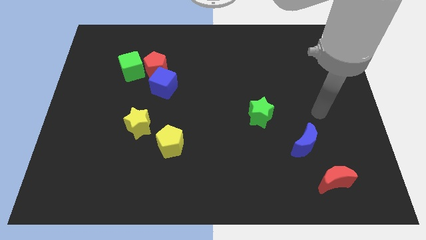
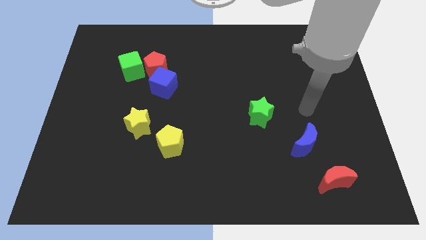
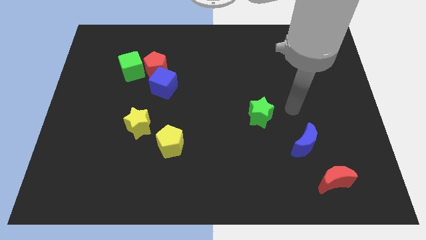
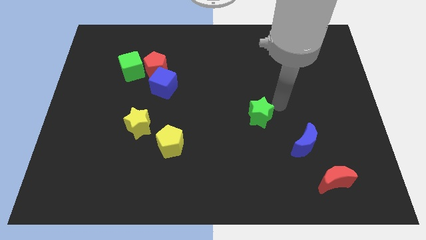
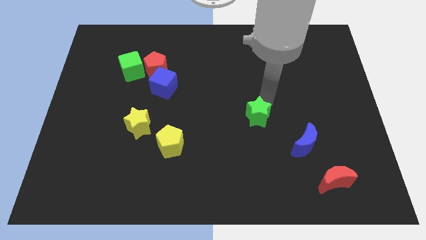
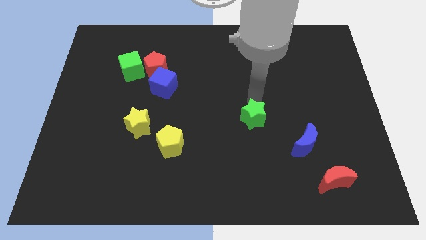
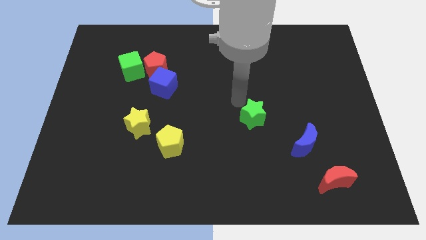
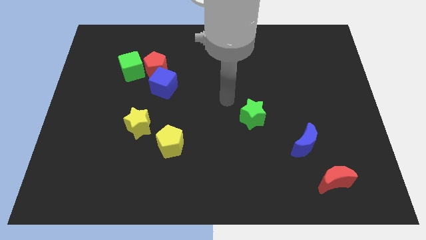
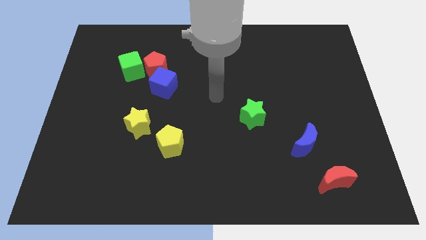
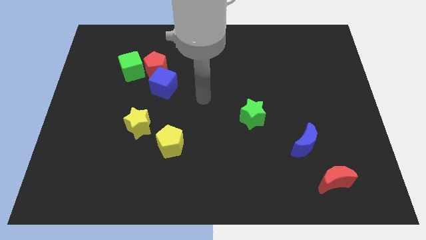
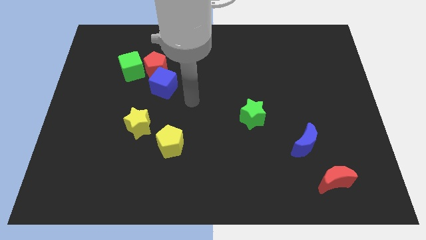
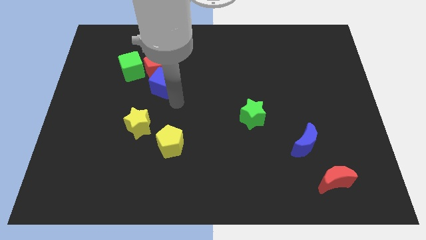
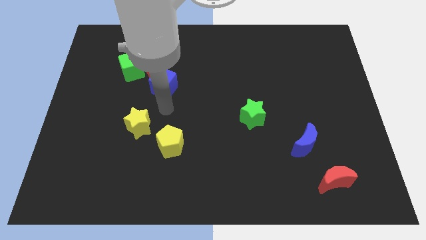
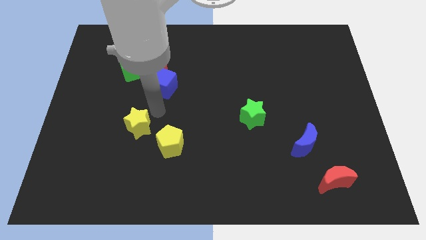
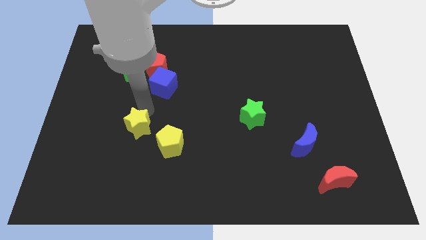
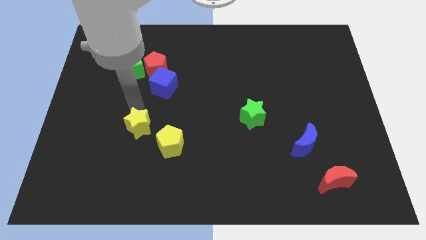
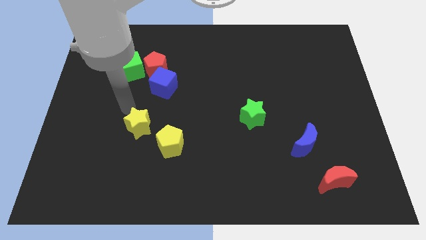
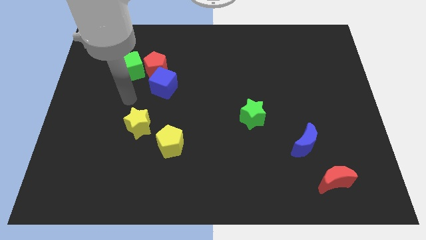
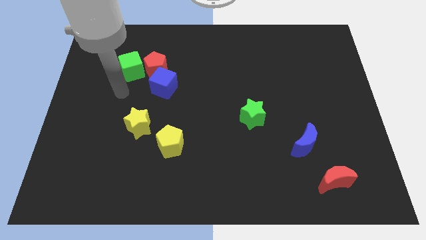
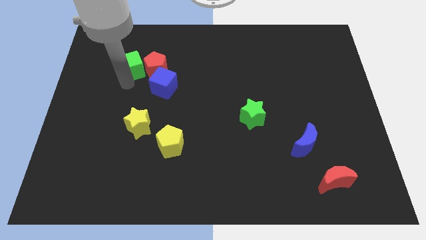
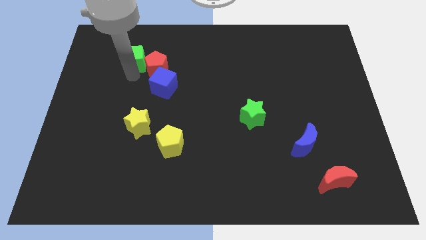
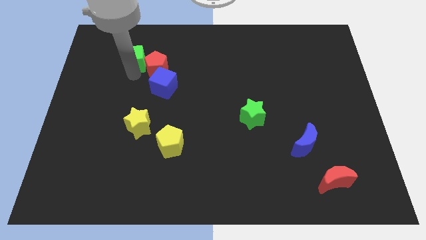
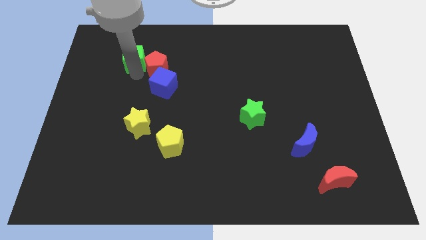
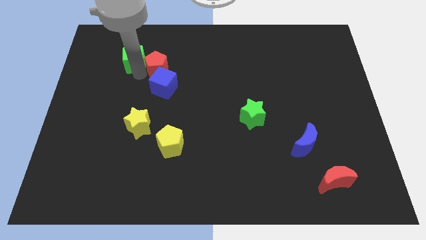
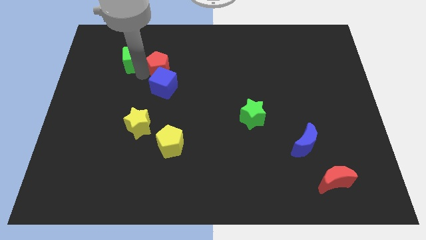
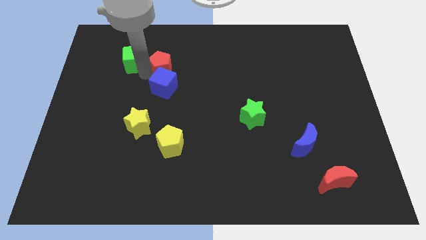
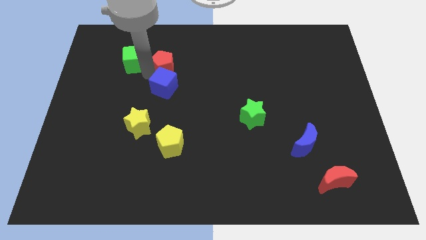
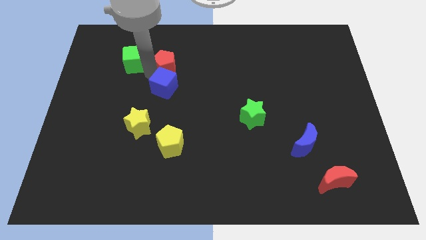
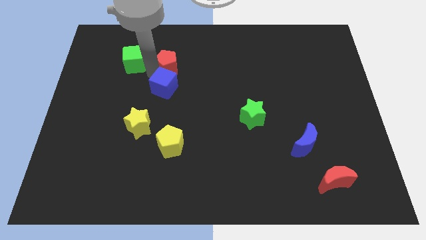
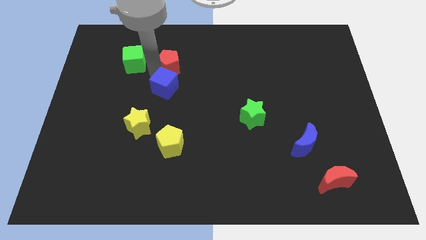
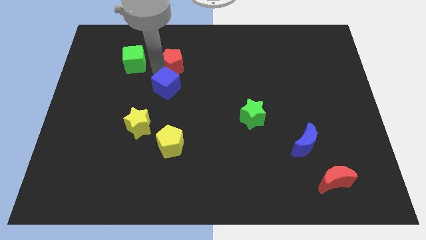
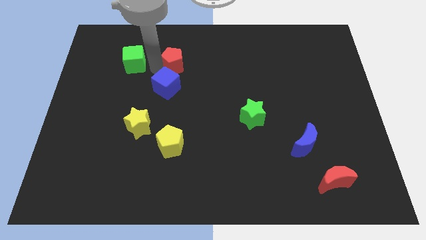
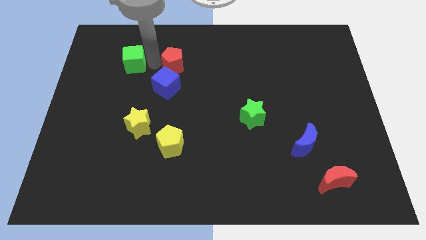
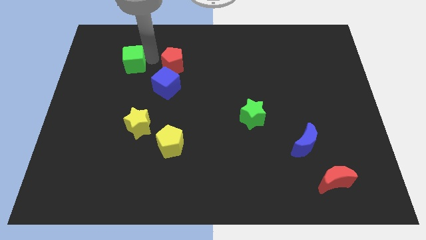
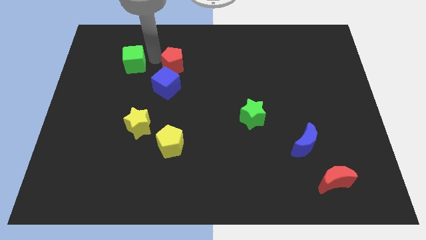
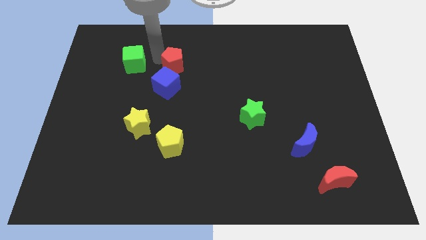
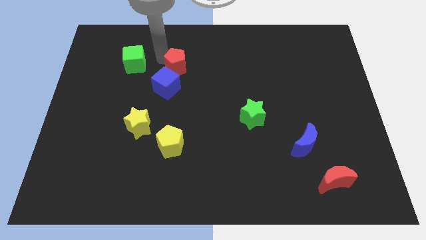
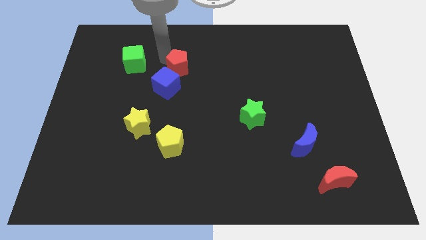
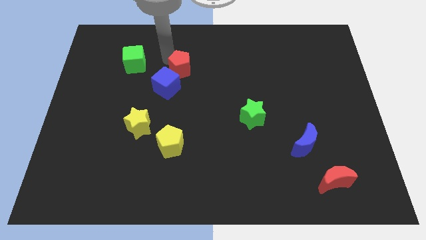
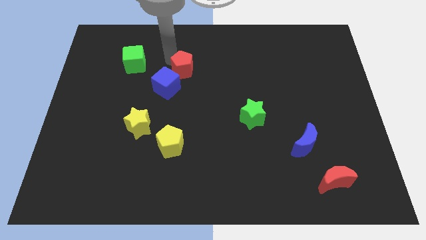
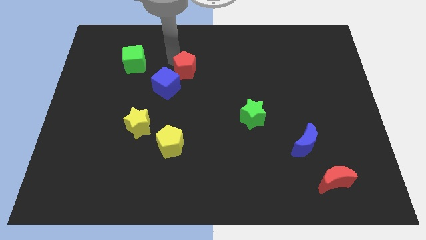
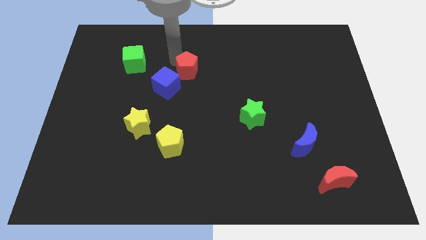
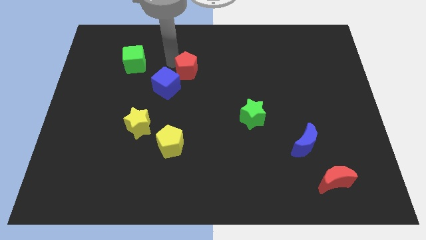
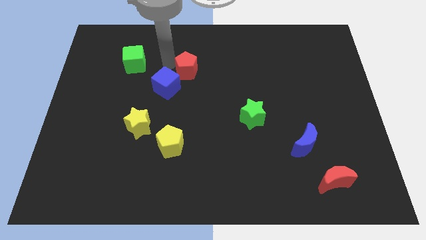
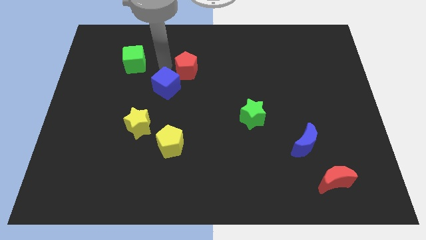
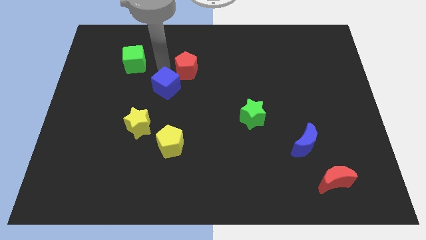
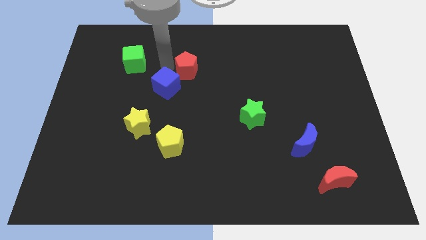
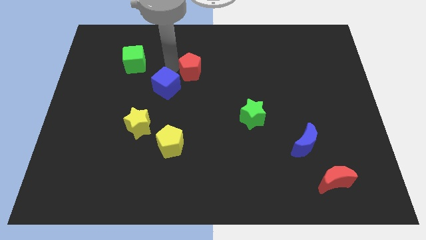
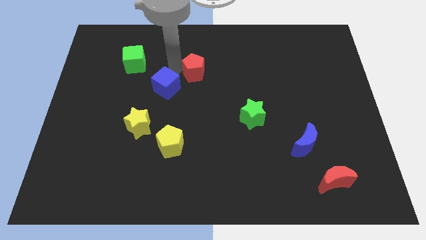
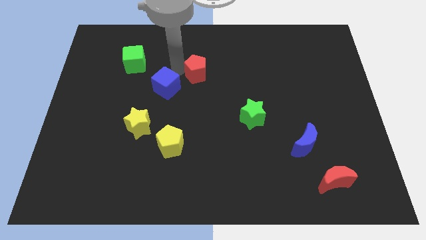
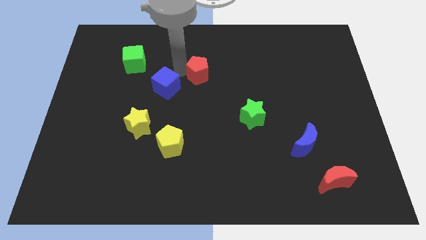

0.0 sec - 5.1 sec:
slightly push the red pentagon down and then to the right

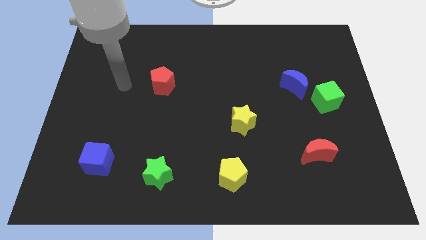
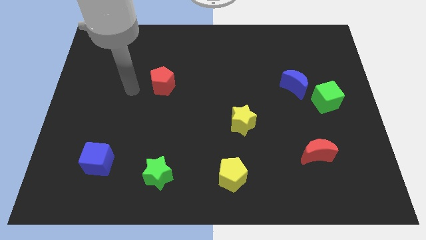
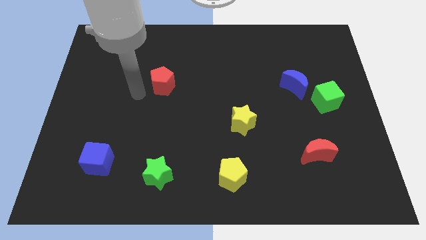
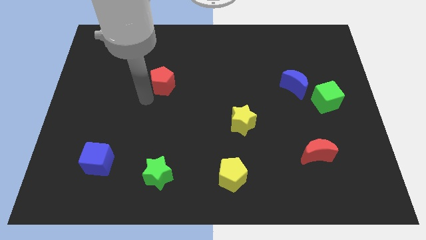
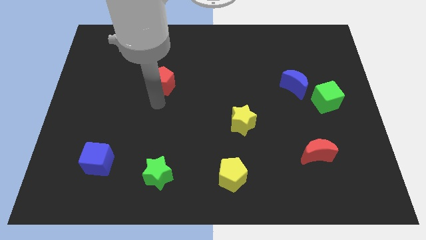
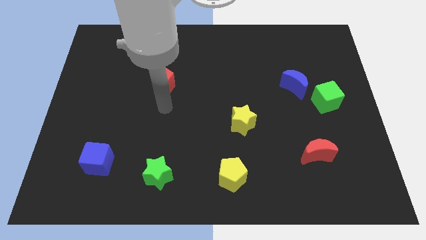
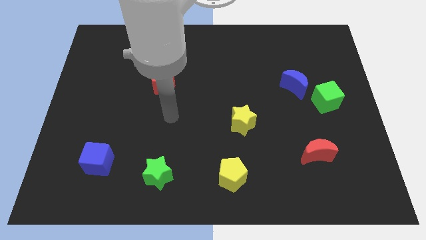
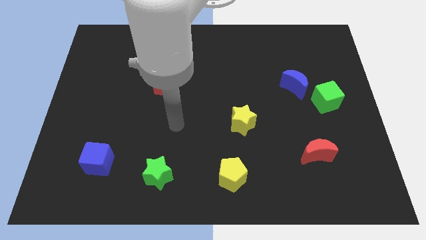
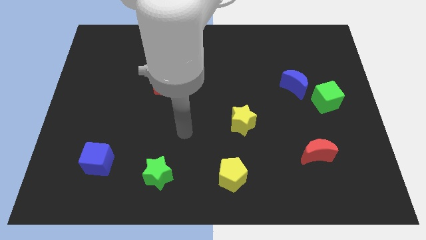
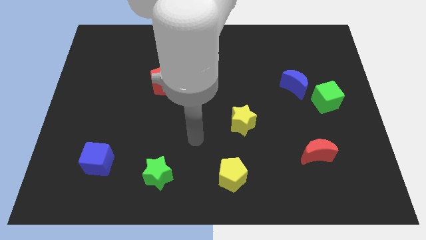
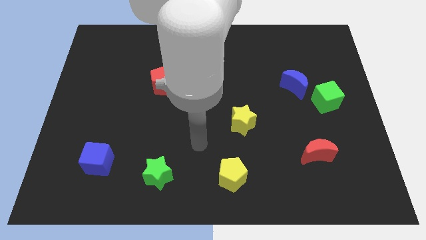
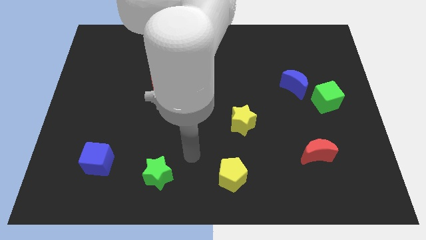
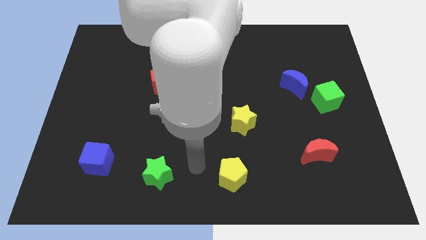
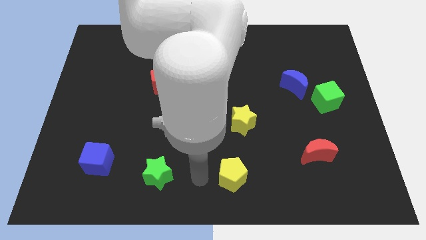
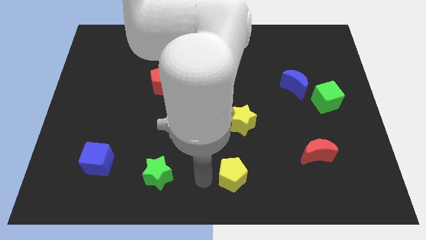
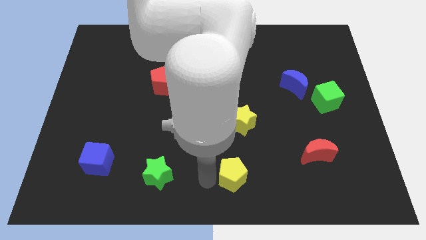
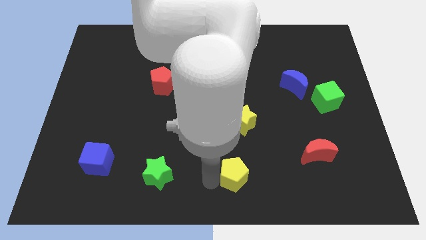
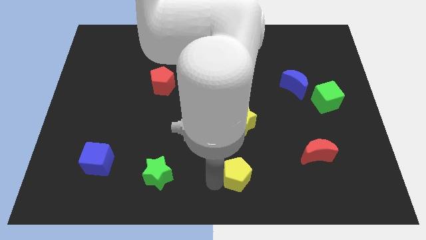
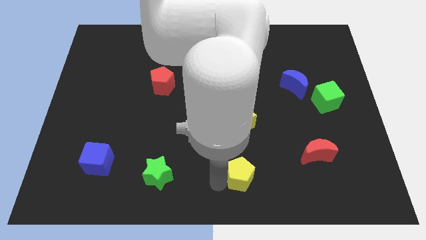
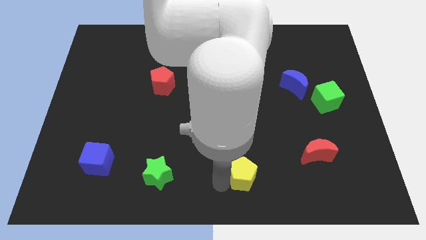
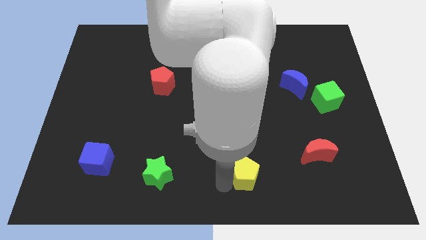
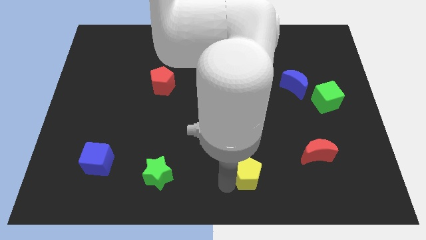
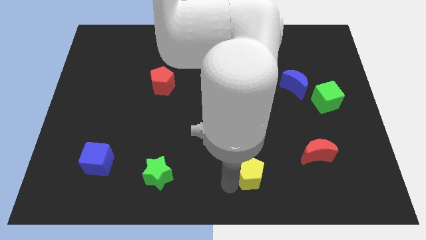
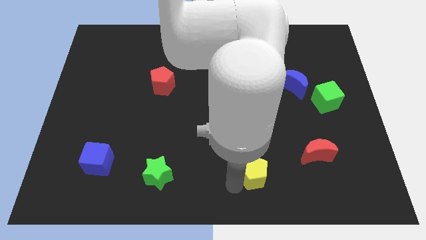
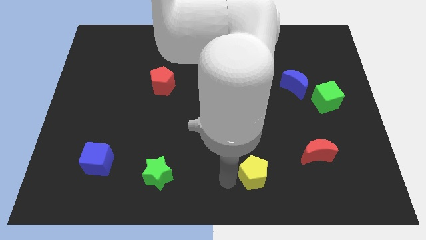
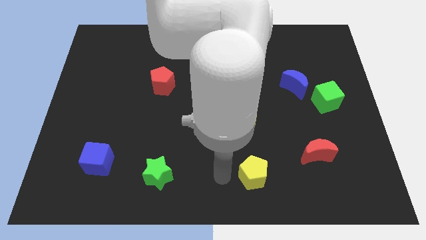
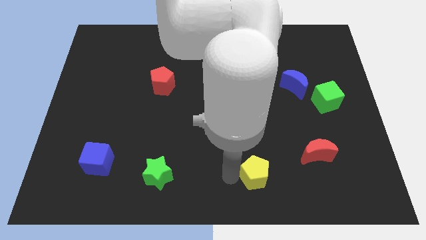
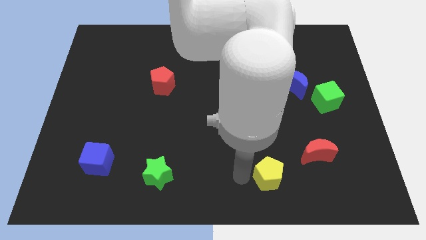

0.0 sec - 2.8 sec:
slightly push the yellow pentagon right
